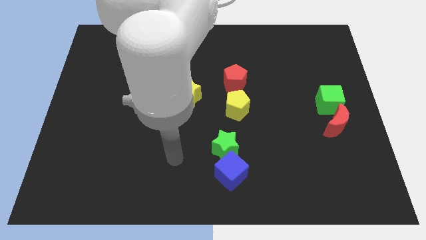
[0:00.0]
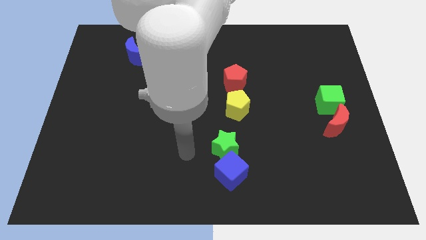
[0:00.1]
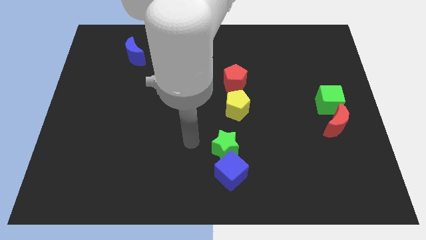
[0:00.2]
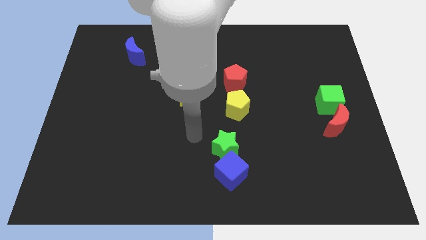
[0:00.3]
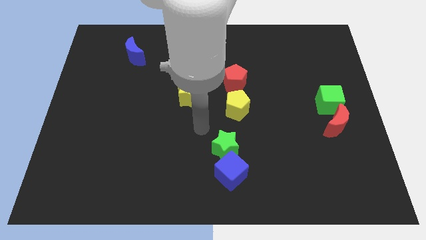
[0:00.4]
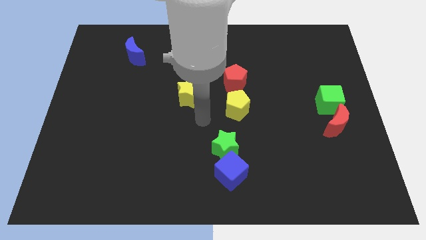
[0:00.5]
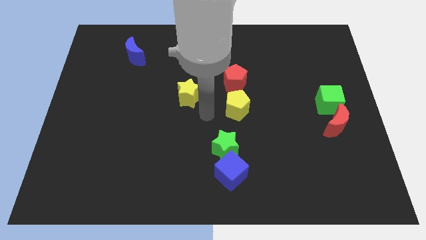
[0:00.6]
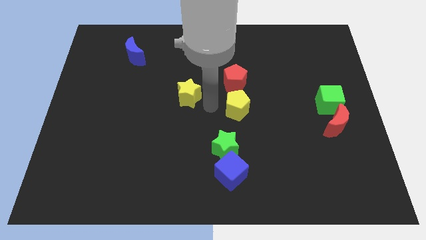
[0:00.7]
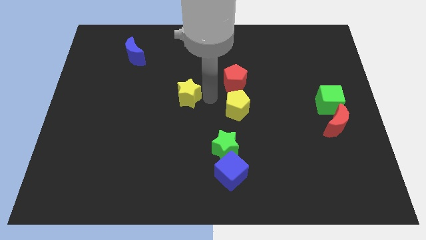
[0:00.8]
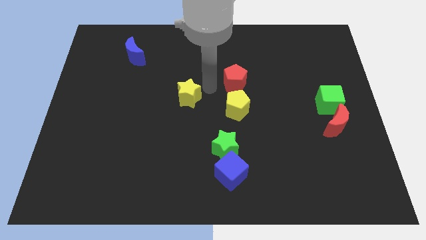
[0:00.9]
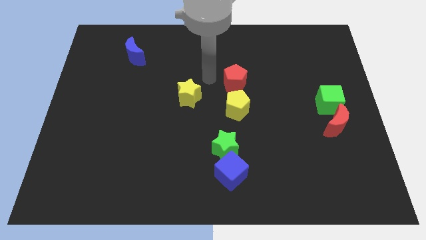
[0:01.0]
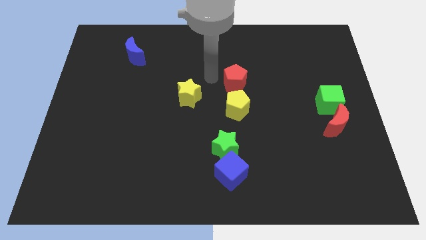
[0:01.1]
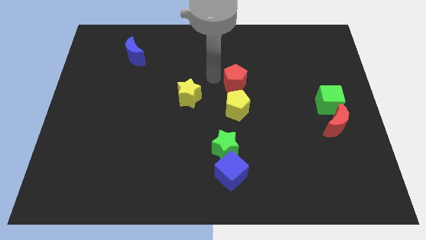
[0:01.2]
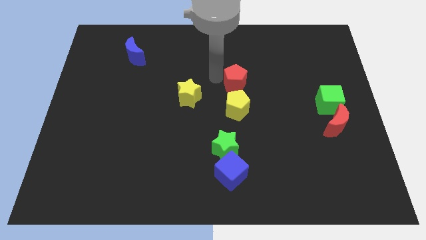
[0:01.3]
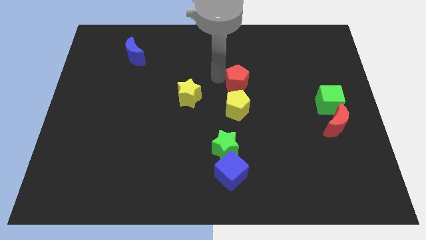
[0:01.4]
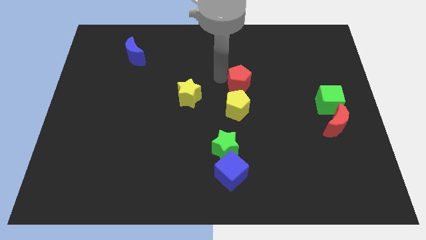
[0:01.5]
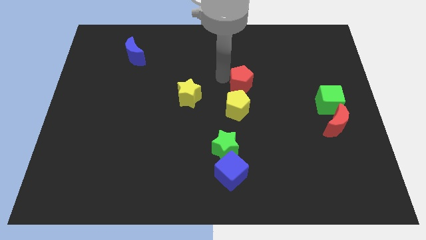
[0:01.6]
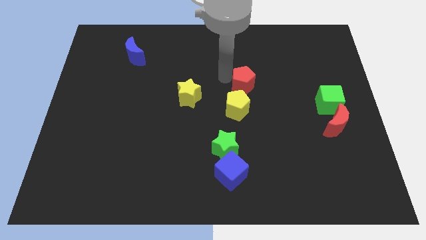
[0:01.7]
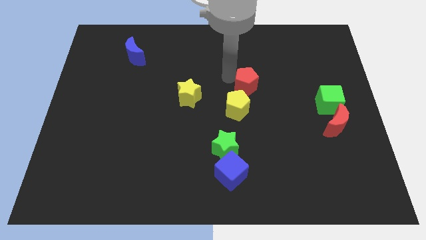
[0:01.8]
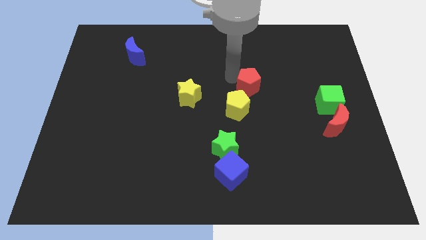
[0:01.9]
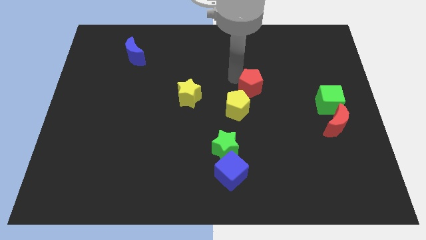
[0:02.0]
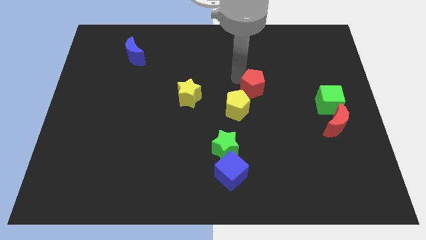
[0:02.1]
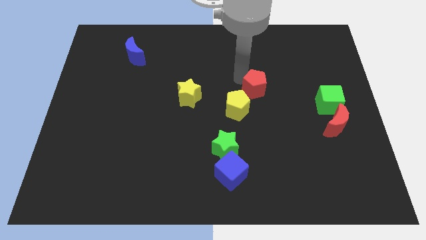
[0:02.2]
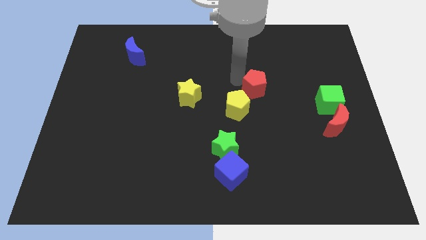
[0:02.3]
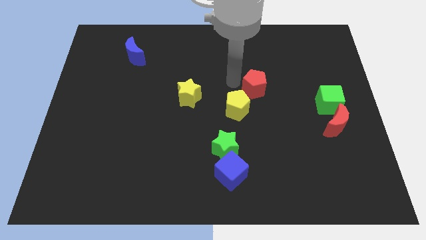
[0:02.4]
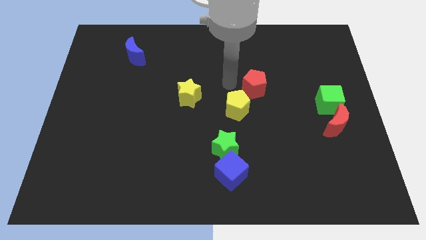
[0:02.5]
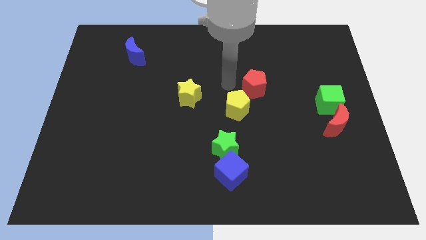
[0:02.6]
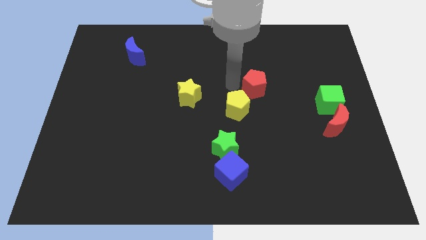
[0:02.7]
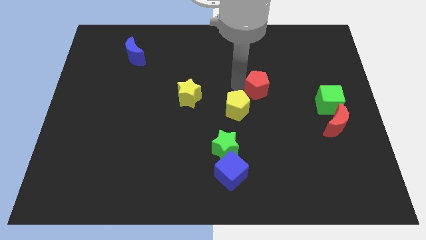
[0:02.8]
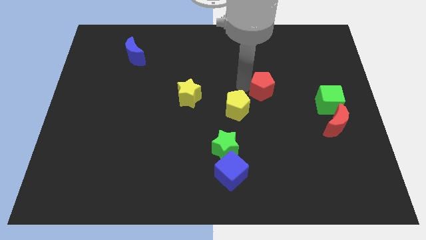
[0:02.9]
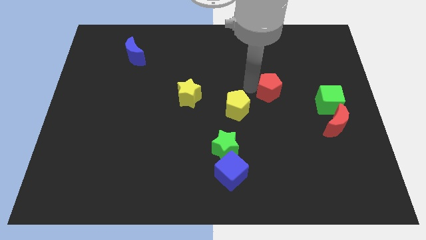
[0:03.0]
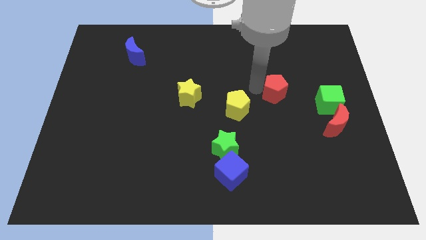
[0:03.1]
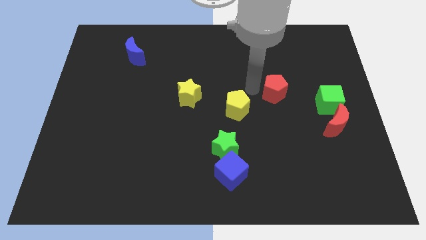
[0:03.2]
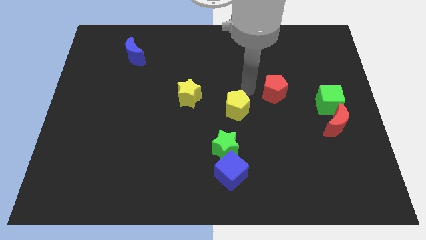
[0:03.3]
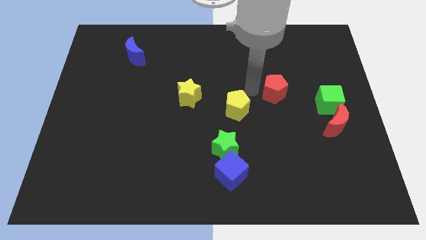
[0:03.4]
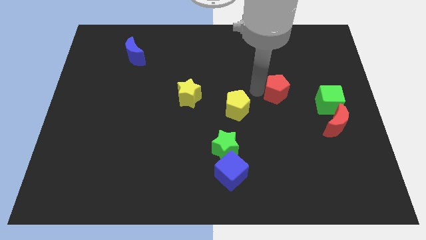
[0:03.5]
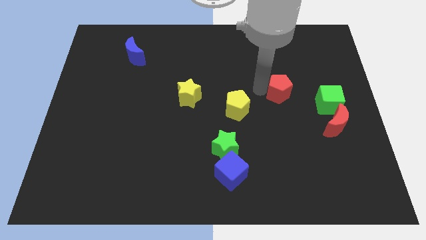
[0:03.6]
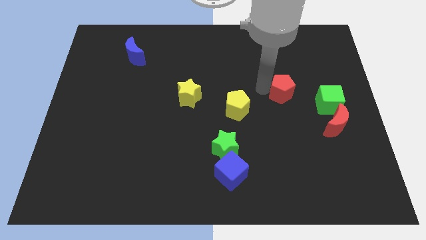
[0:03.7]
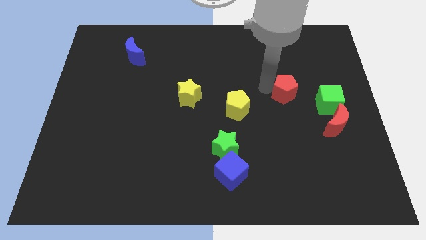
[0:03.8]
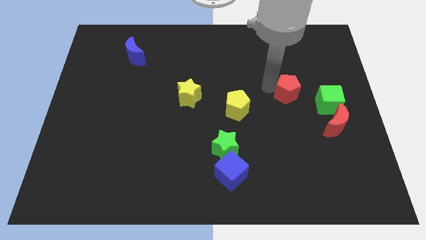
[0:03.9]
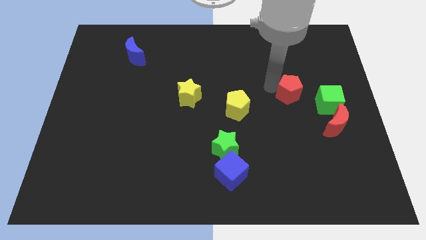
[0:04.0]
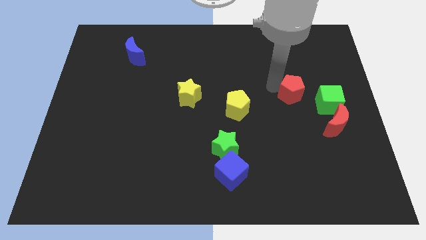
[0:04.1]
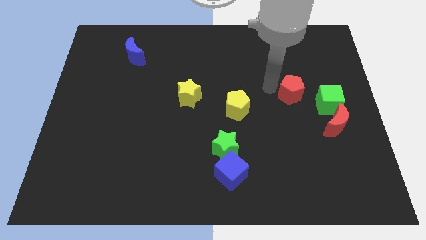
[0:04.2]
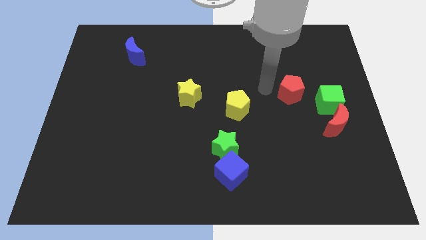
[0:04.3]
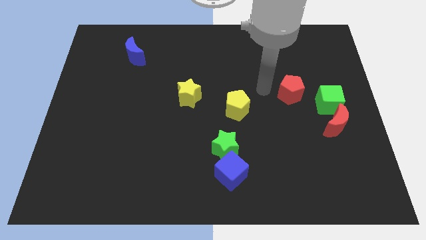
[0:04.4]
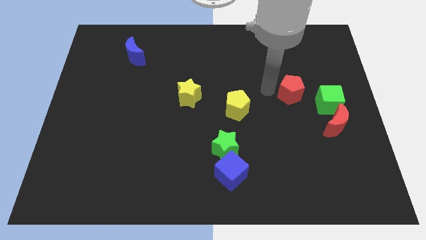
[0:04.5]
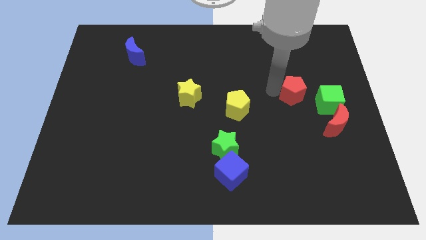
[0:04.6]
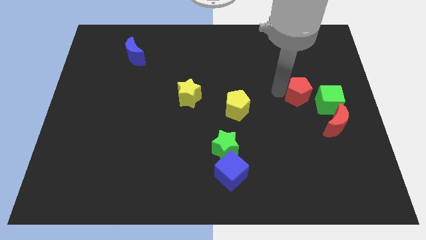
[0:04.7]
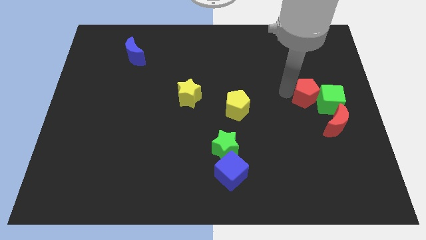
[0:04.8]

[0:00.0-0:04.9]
slide the red pentagon towards the green cube

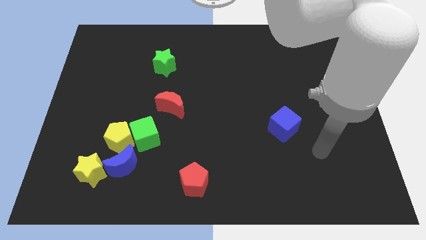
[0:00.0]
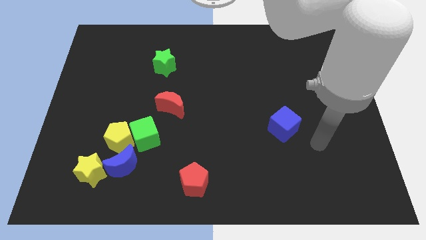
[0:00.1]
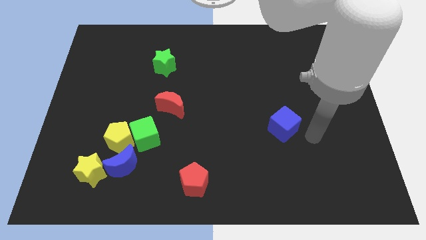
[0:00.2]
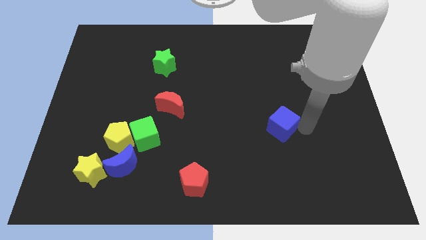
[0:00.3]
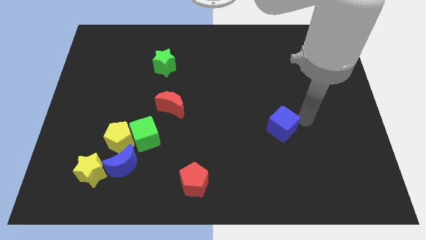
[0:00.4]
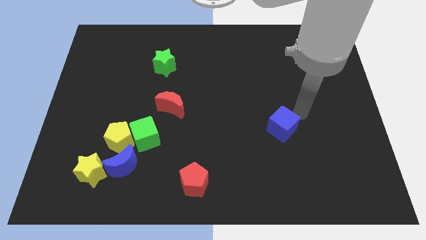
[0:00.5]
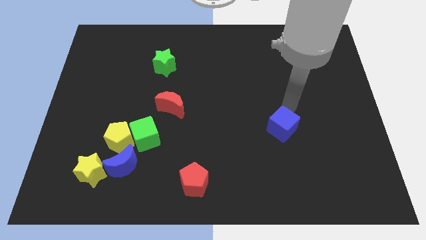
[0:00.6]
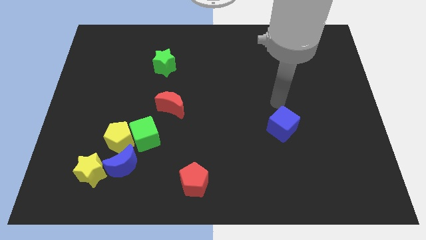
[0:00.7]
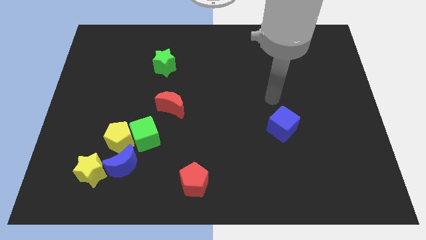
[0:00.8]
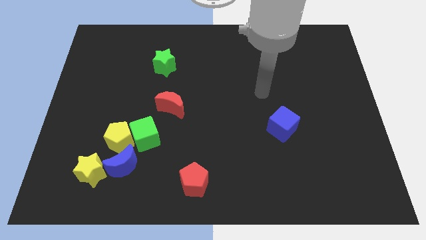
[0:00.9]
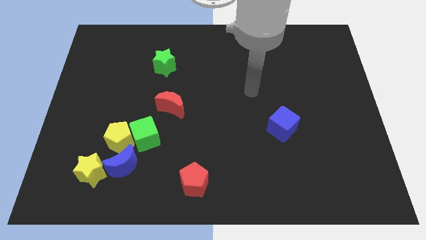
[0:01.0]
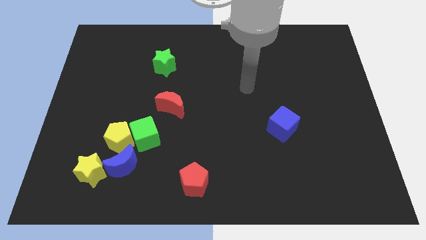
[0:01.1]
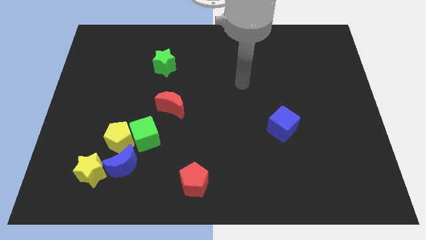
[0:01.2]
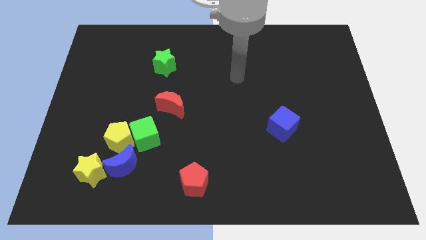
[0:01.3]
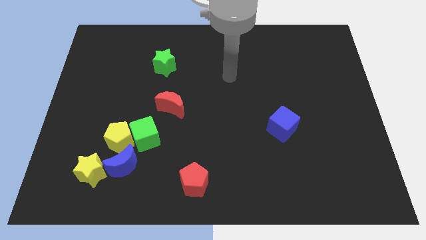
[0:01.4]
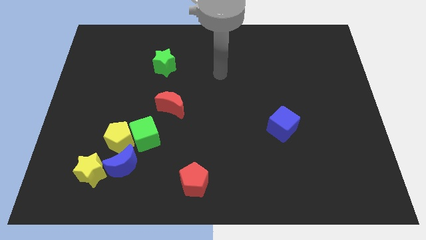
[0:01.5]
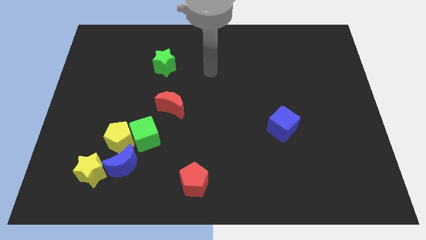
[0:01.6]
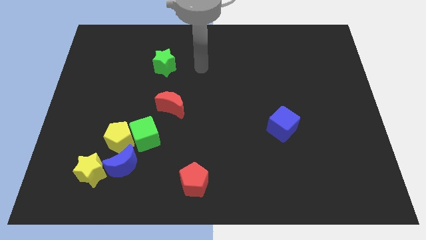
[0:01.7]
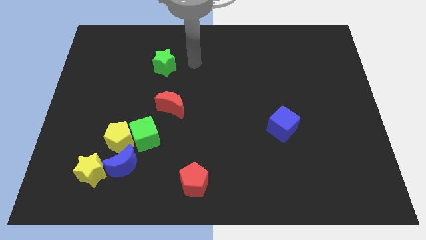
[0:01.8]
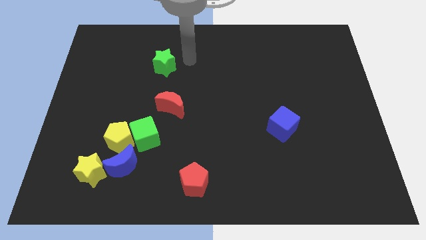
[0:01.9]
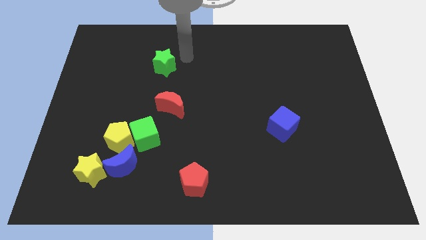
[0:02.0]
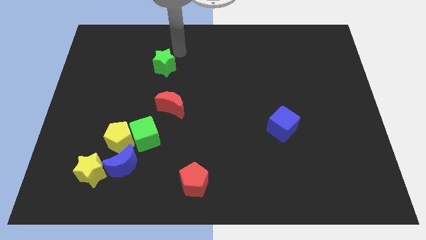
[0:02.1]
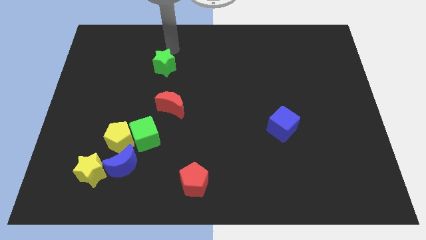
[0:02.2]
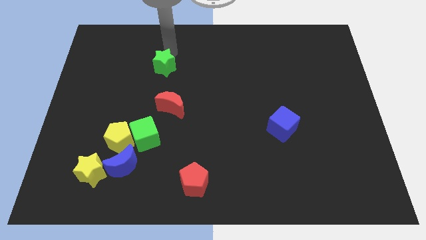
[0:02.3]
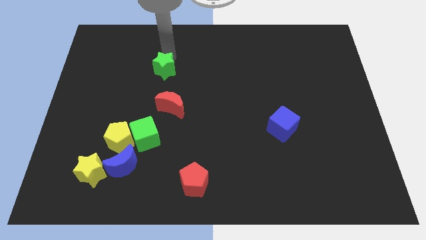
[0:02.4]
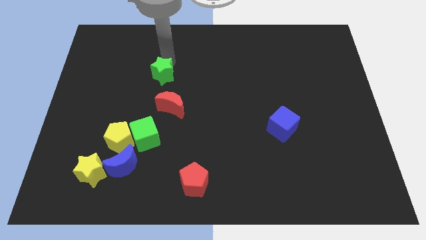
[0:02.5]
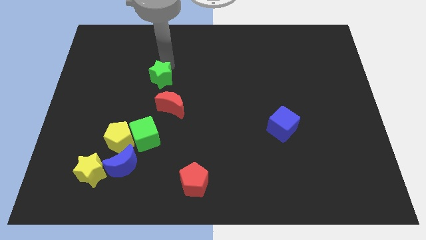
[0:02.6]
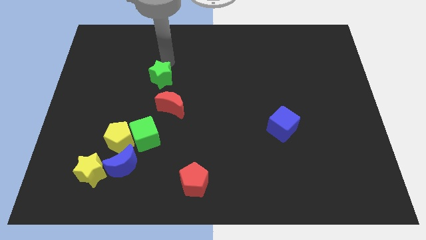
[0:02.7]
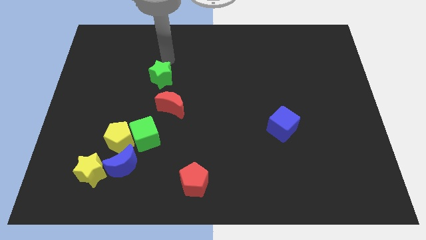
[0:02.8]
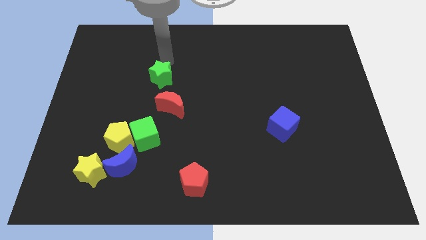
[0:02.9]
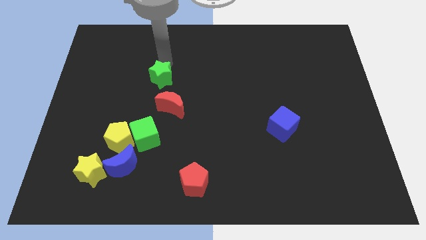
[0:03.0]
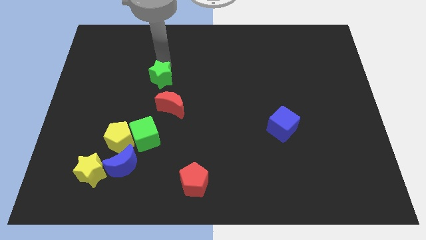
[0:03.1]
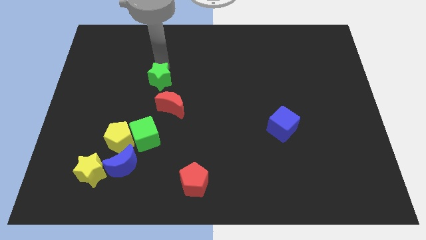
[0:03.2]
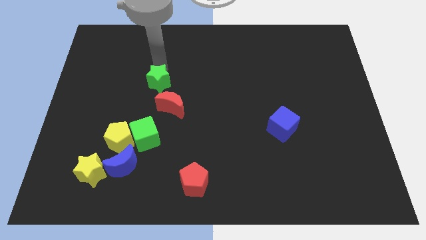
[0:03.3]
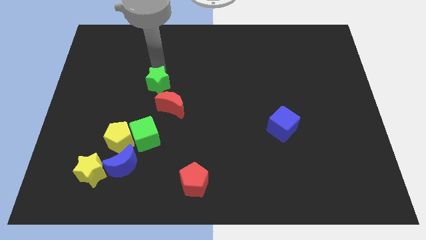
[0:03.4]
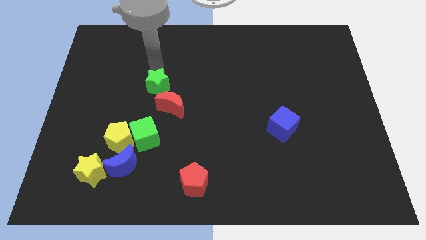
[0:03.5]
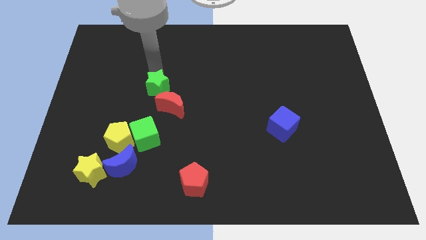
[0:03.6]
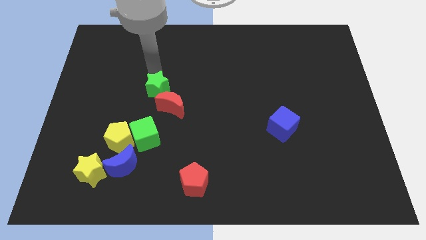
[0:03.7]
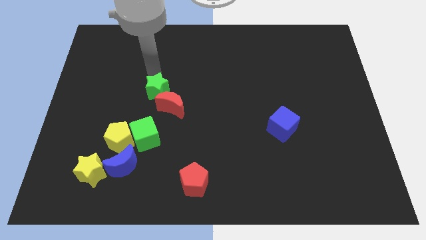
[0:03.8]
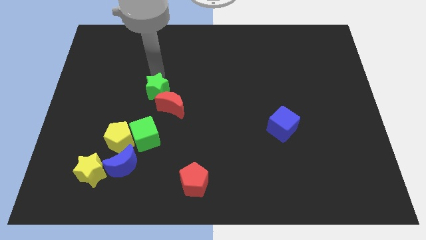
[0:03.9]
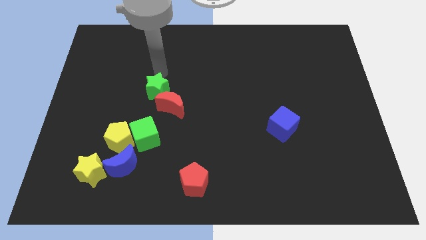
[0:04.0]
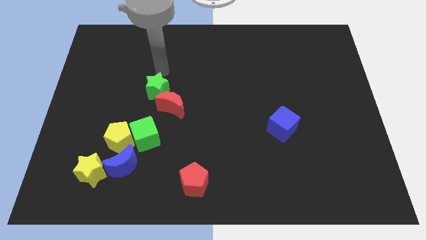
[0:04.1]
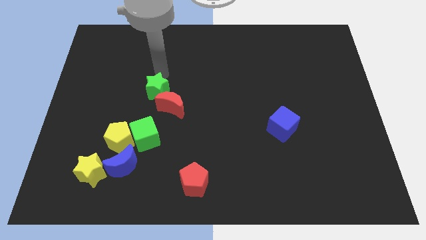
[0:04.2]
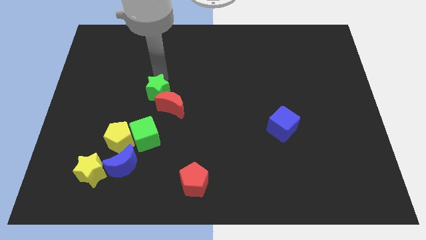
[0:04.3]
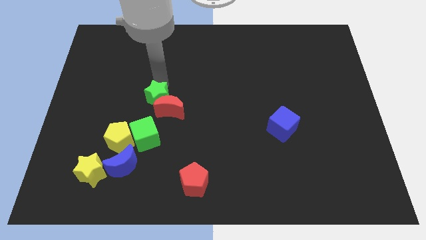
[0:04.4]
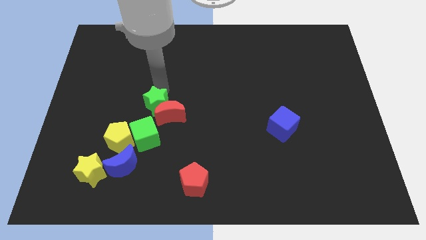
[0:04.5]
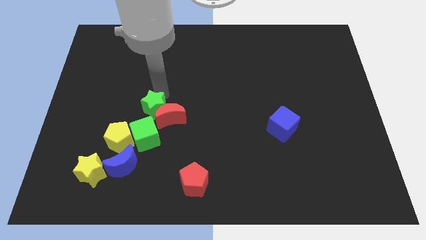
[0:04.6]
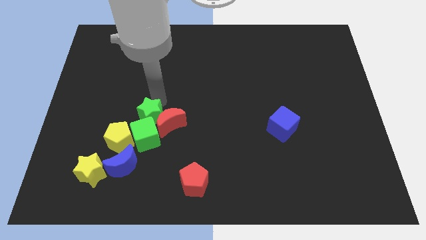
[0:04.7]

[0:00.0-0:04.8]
push the green star to the green cube
